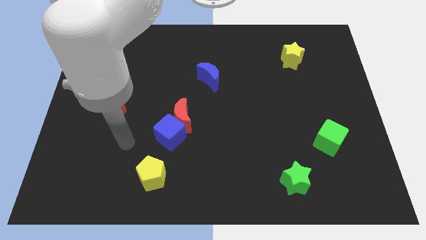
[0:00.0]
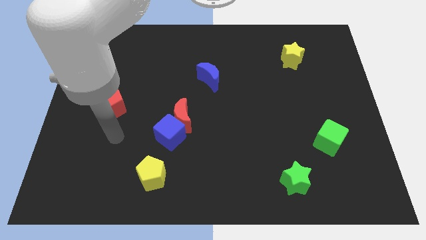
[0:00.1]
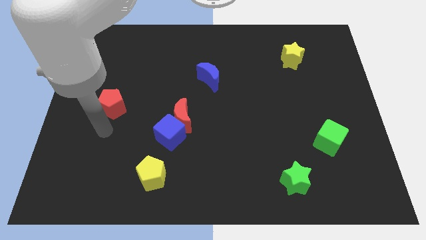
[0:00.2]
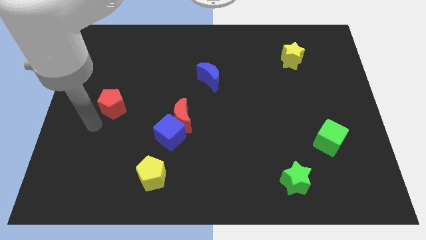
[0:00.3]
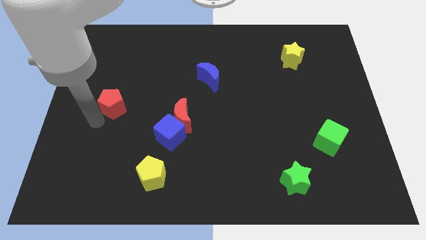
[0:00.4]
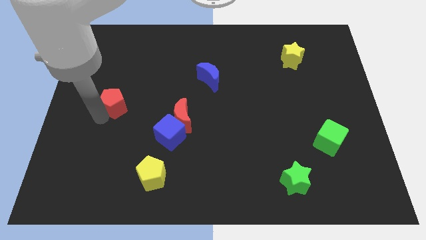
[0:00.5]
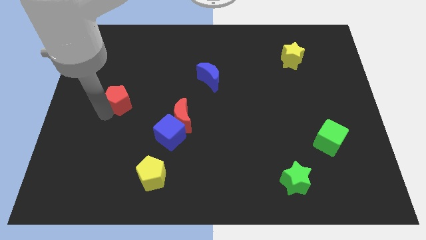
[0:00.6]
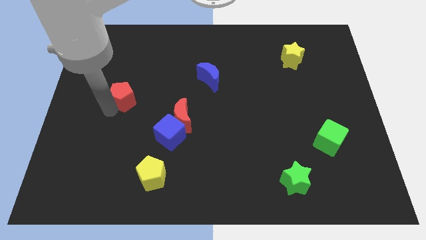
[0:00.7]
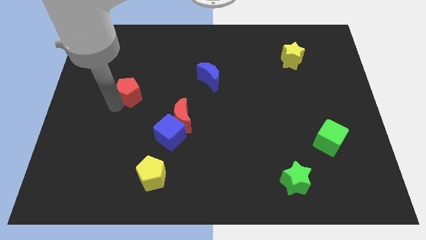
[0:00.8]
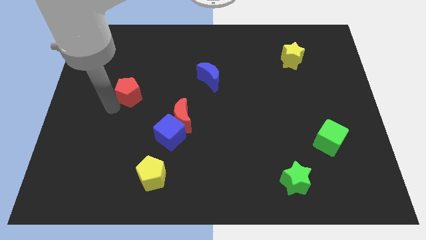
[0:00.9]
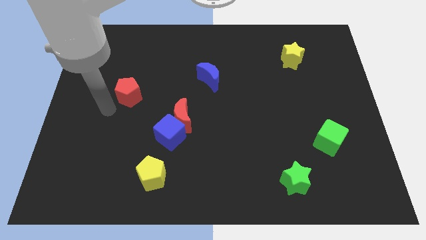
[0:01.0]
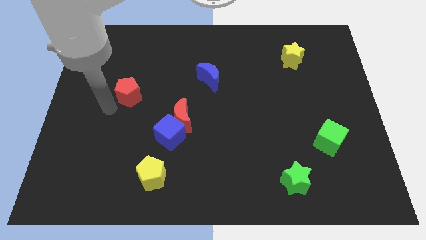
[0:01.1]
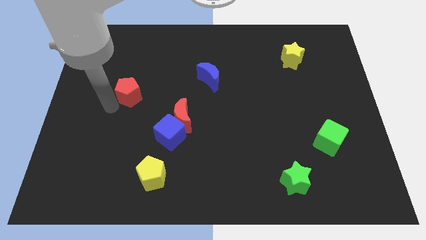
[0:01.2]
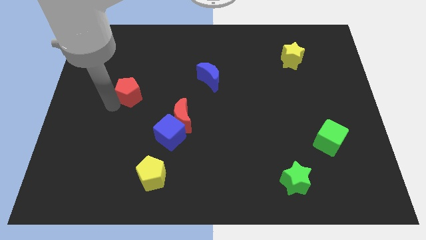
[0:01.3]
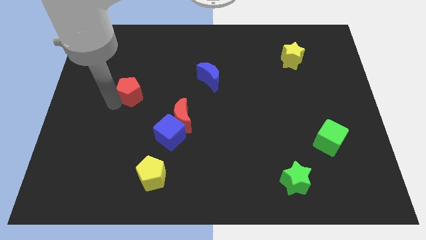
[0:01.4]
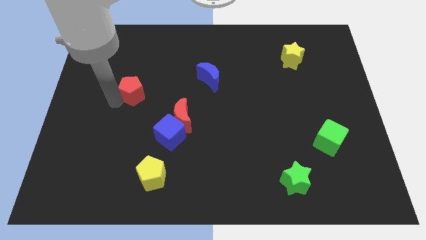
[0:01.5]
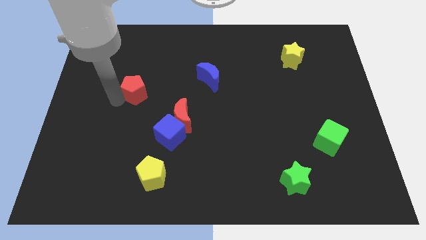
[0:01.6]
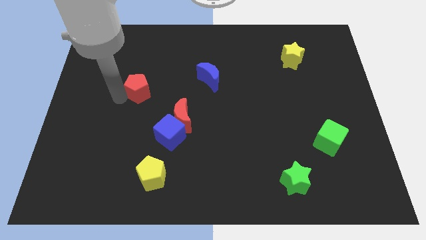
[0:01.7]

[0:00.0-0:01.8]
move the red pentagon up and then right somewhat

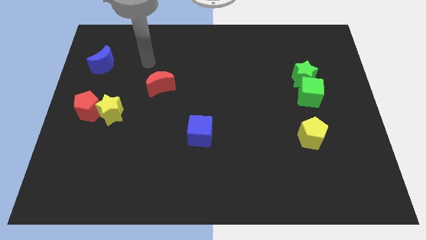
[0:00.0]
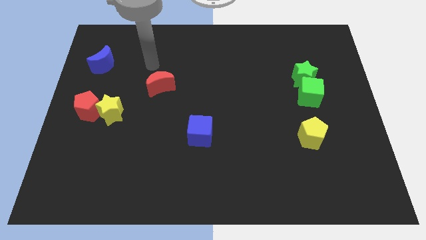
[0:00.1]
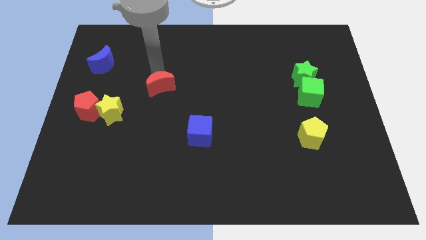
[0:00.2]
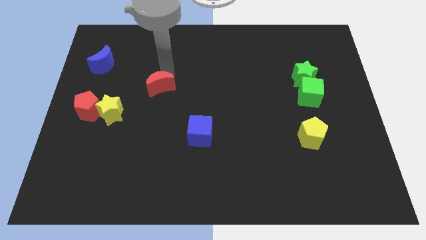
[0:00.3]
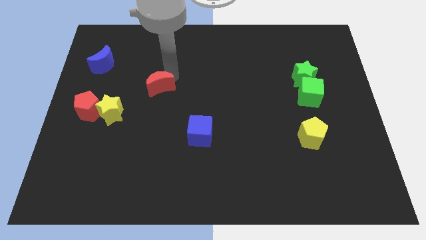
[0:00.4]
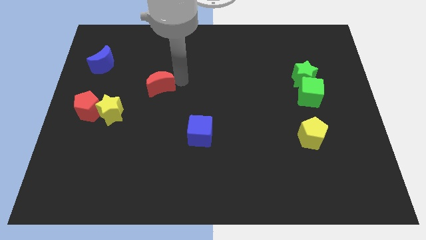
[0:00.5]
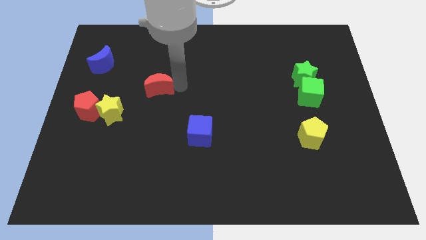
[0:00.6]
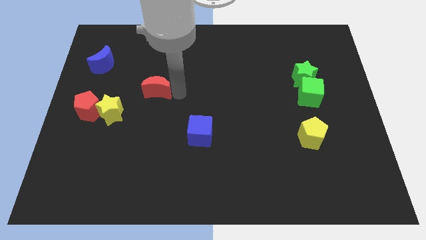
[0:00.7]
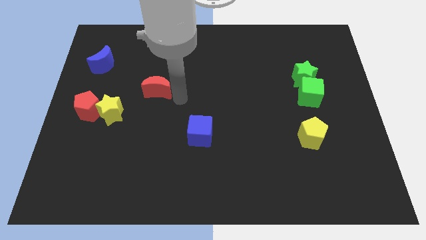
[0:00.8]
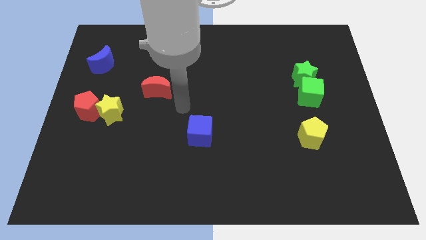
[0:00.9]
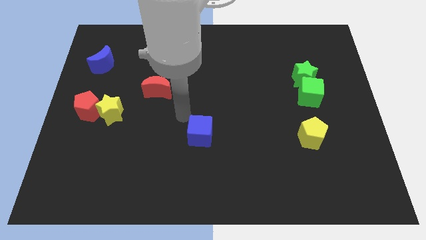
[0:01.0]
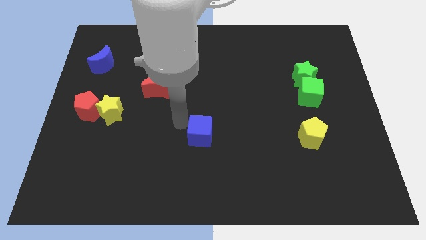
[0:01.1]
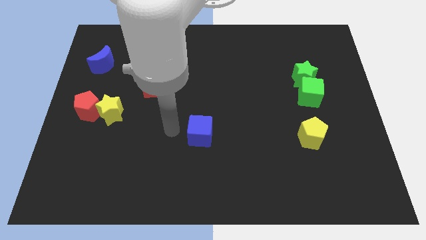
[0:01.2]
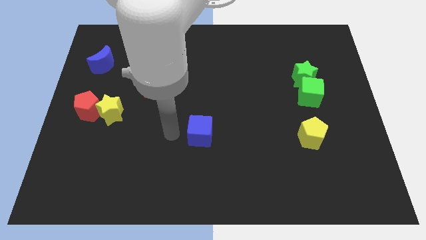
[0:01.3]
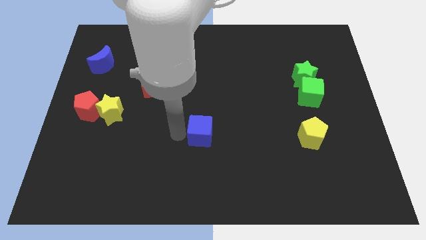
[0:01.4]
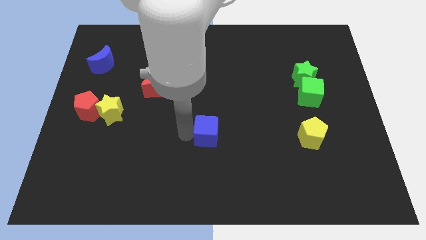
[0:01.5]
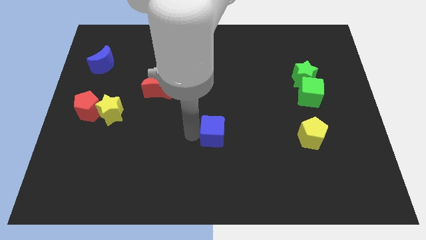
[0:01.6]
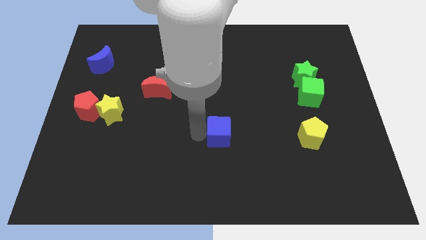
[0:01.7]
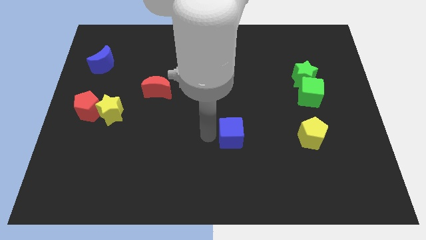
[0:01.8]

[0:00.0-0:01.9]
push the blue cube right a little bit

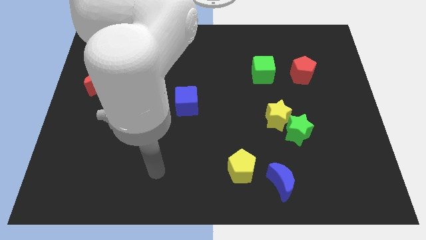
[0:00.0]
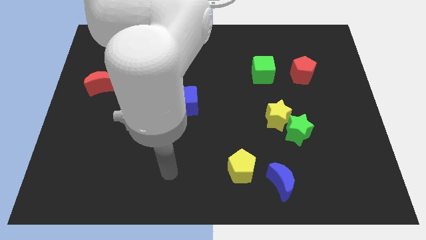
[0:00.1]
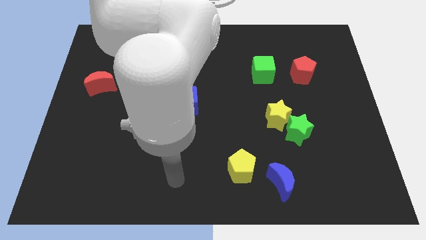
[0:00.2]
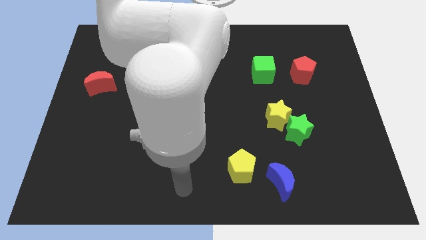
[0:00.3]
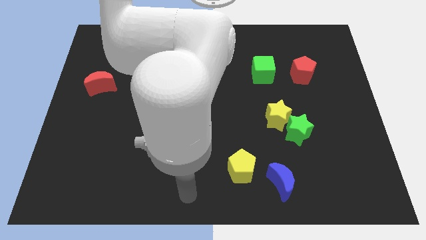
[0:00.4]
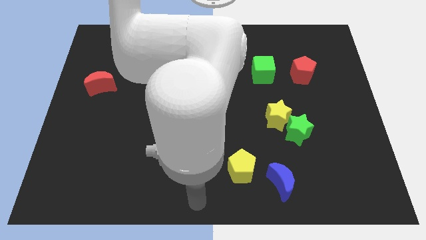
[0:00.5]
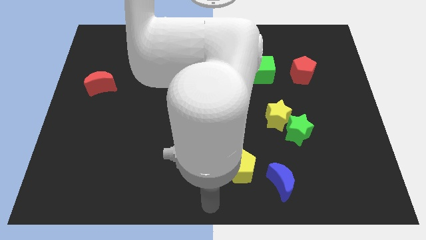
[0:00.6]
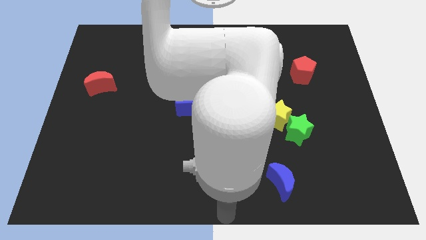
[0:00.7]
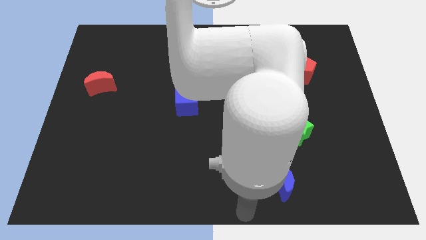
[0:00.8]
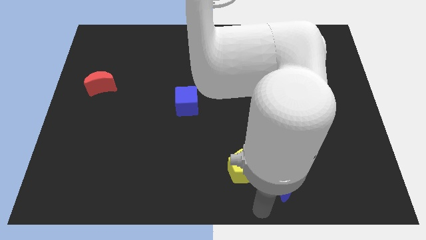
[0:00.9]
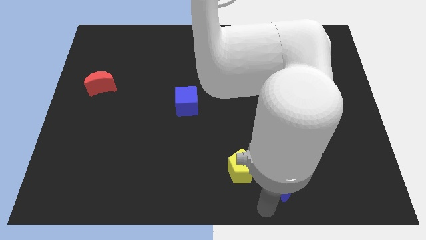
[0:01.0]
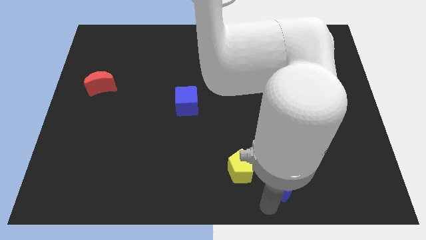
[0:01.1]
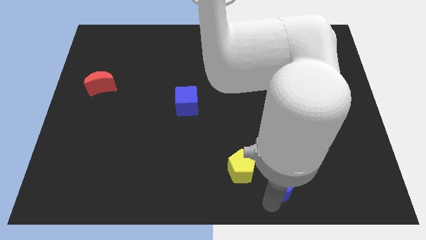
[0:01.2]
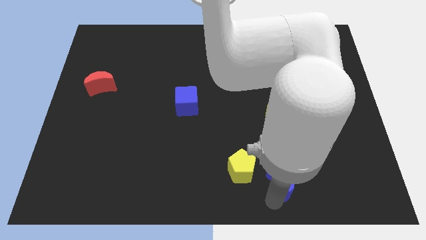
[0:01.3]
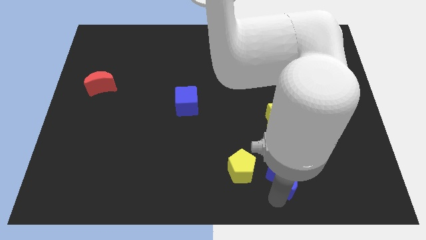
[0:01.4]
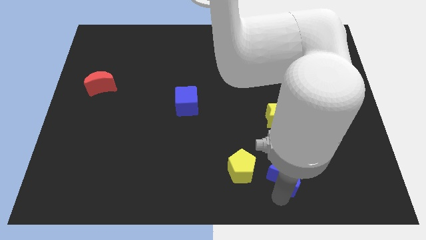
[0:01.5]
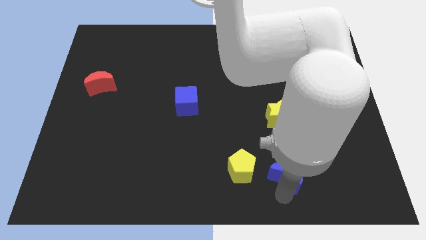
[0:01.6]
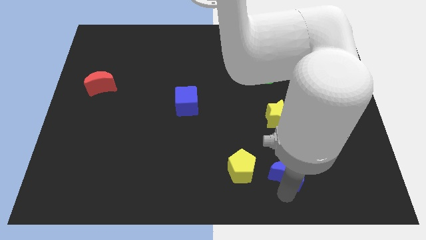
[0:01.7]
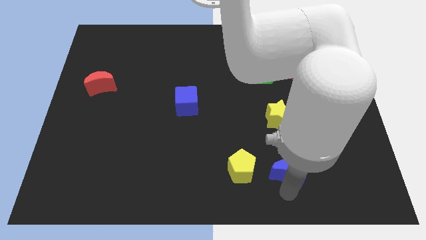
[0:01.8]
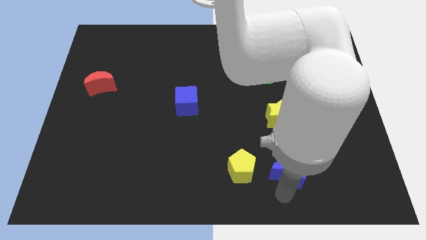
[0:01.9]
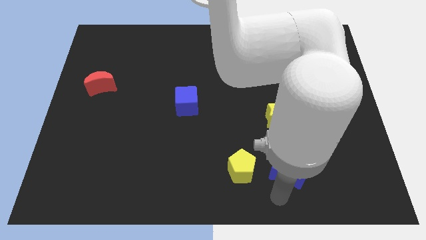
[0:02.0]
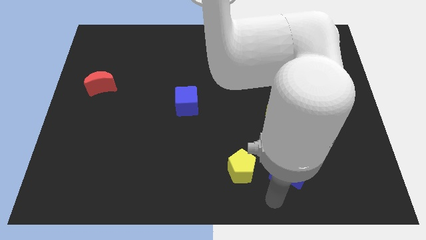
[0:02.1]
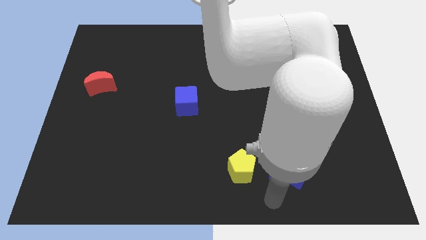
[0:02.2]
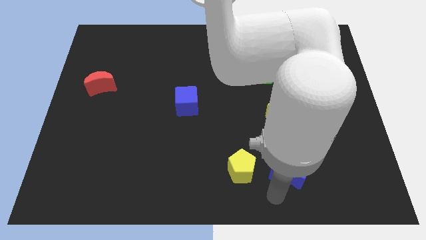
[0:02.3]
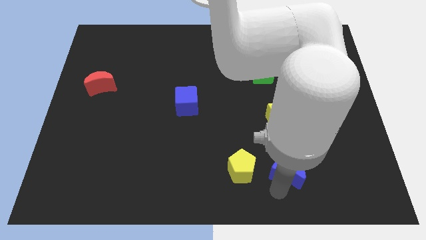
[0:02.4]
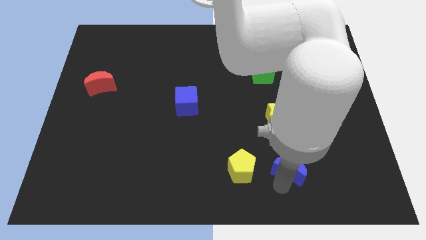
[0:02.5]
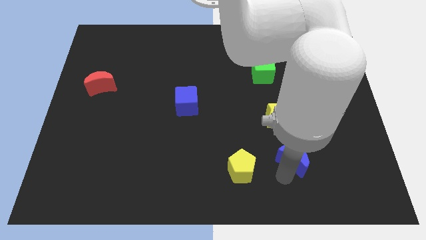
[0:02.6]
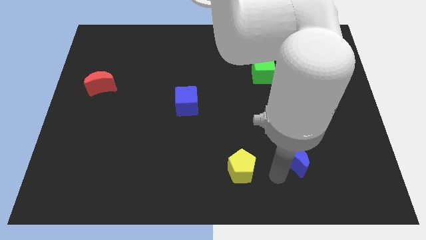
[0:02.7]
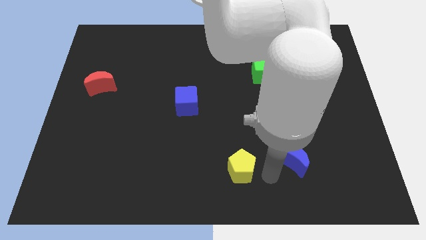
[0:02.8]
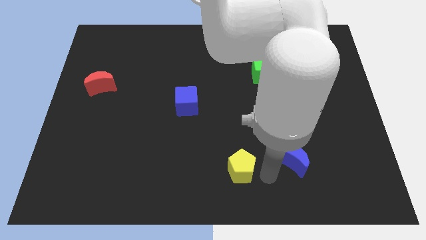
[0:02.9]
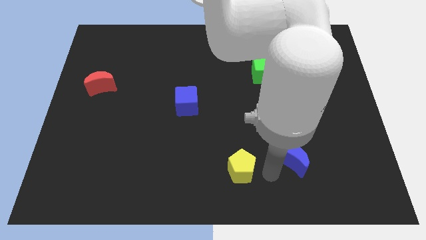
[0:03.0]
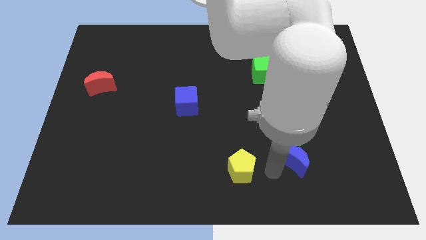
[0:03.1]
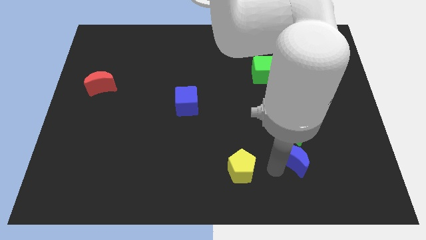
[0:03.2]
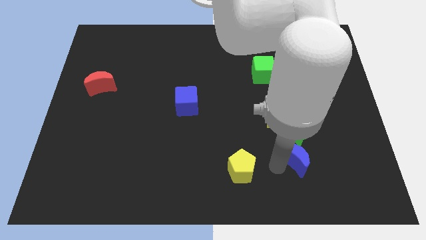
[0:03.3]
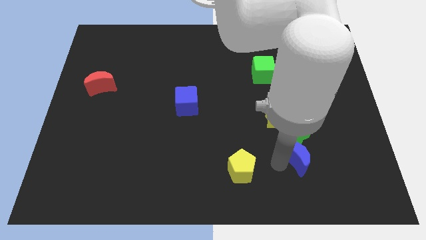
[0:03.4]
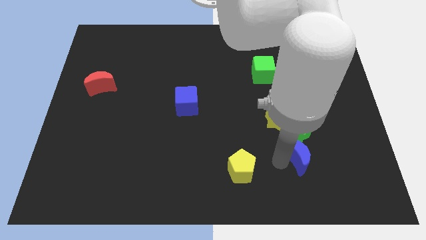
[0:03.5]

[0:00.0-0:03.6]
push the blue moon diagonally up and right slightly

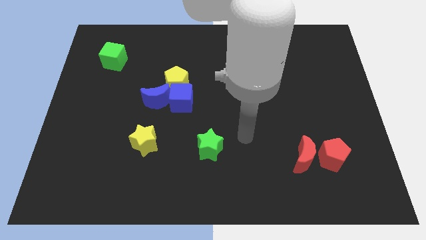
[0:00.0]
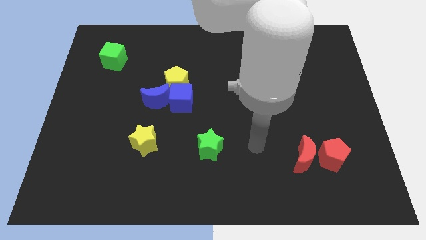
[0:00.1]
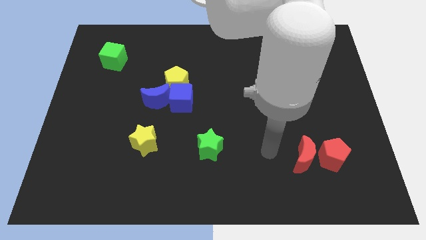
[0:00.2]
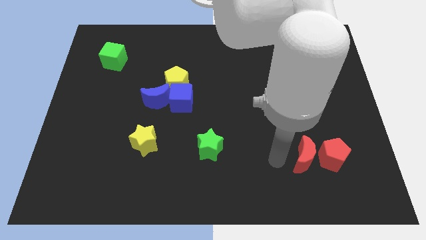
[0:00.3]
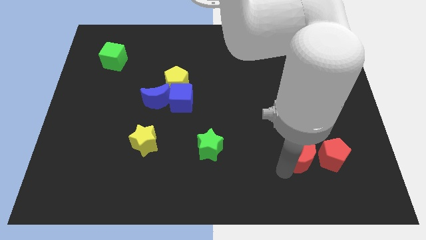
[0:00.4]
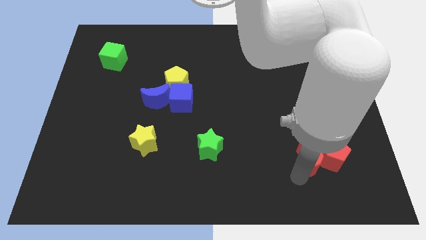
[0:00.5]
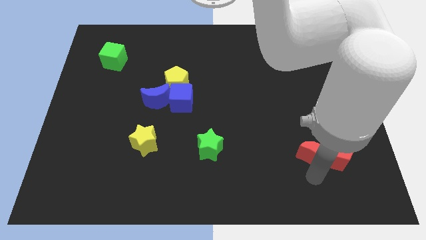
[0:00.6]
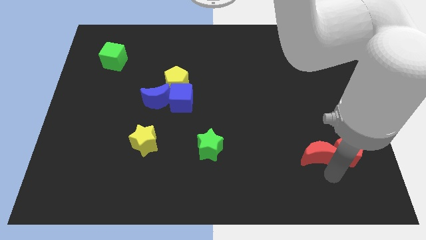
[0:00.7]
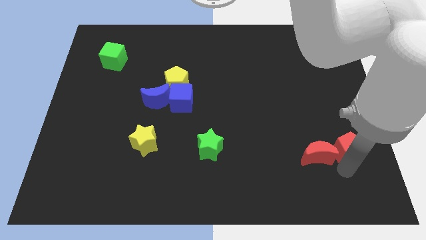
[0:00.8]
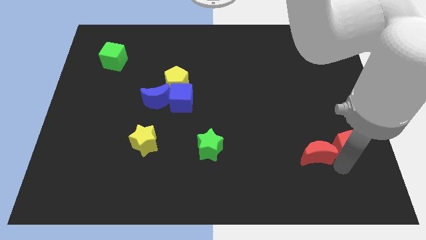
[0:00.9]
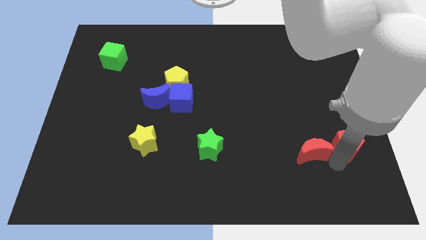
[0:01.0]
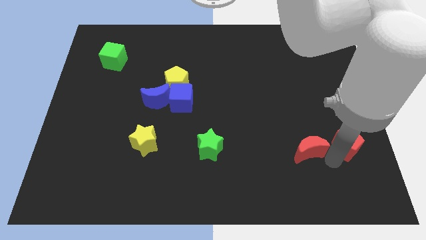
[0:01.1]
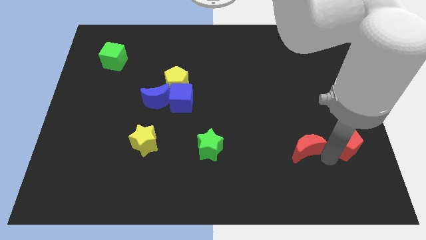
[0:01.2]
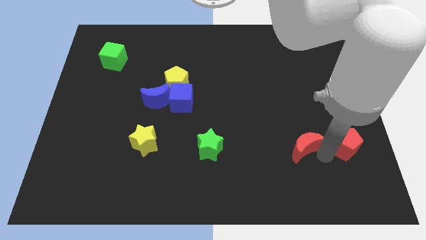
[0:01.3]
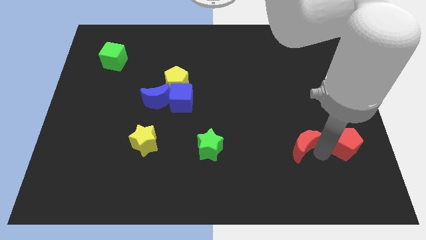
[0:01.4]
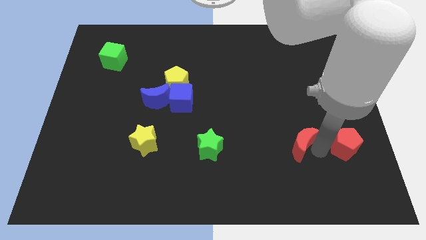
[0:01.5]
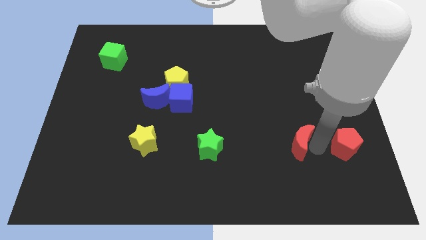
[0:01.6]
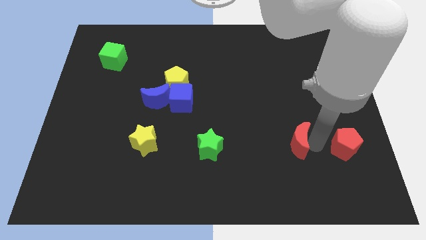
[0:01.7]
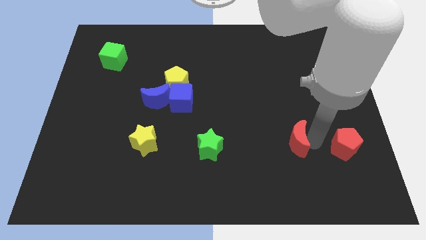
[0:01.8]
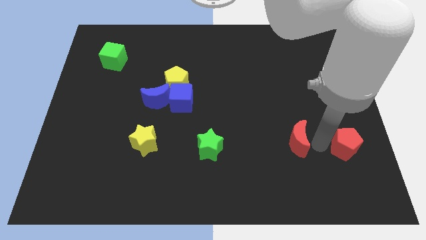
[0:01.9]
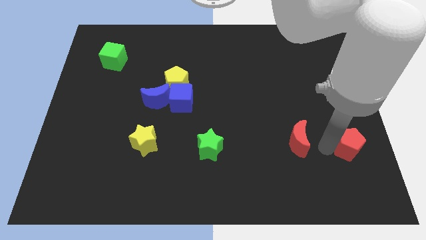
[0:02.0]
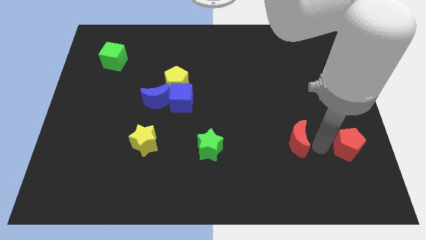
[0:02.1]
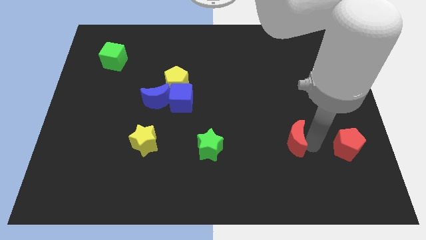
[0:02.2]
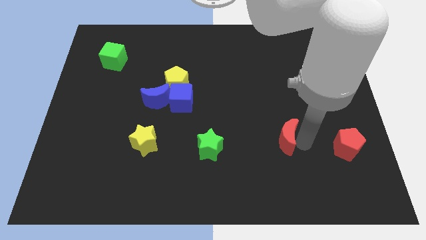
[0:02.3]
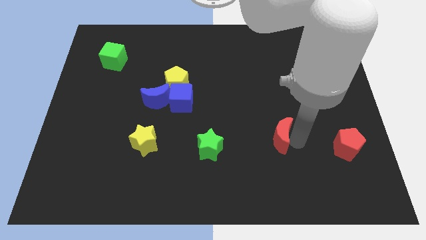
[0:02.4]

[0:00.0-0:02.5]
slightly move the red moon diagonally up and left
